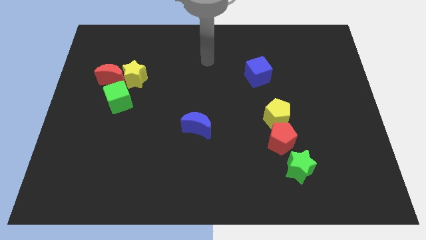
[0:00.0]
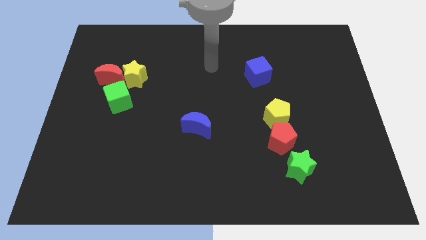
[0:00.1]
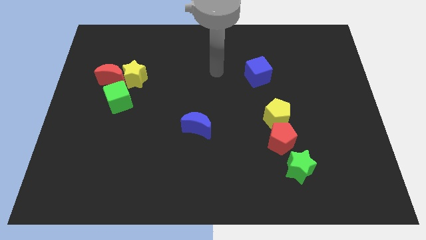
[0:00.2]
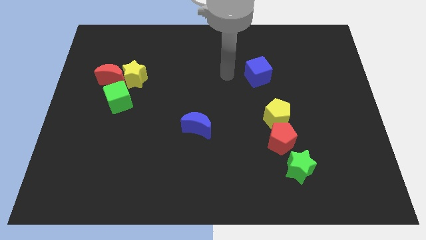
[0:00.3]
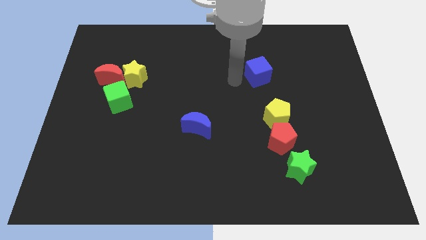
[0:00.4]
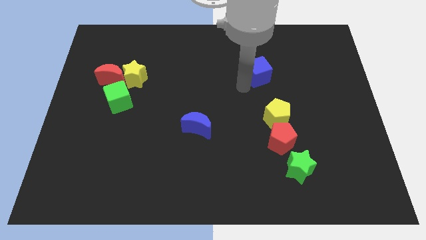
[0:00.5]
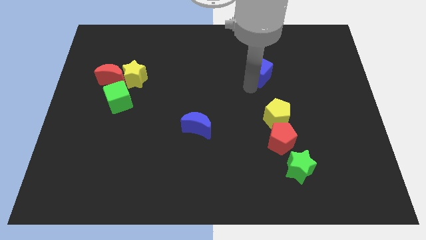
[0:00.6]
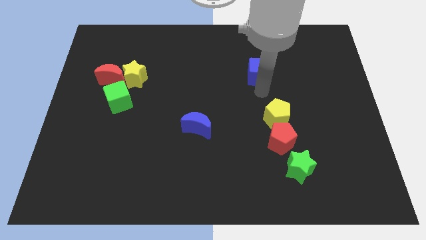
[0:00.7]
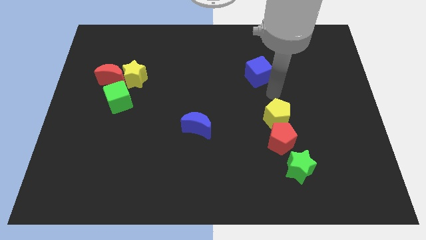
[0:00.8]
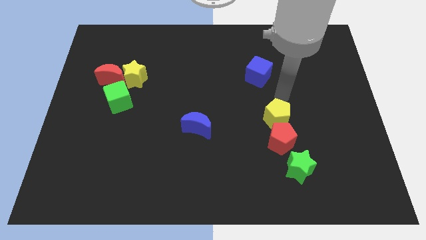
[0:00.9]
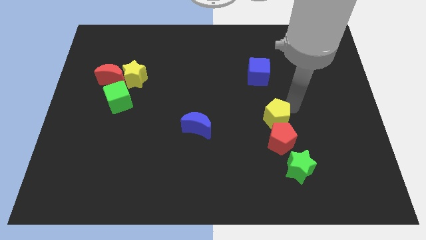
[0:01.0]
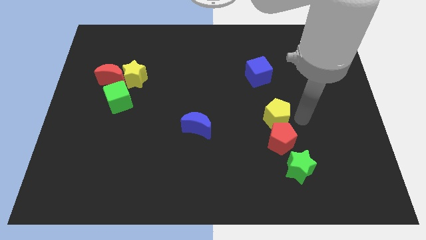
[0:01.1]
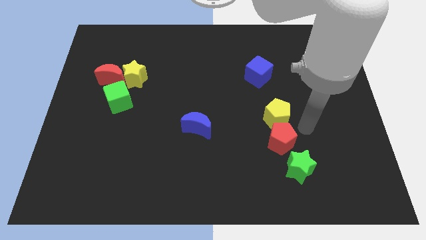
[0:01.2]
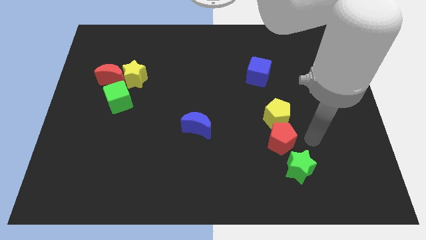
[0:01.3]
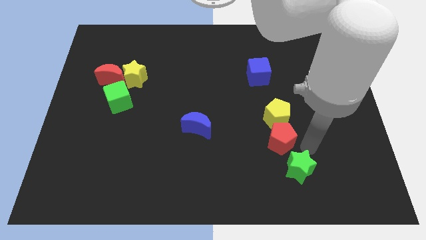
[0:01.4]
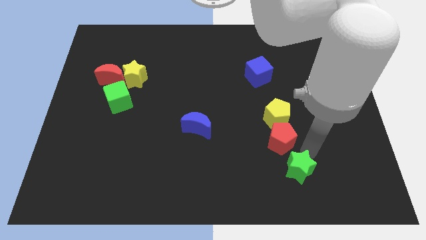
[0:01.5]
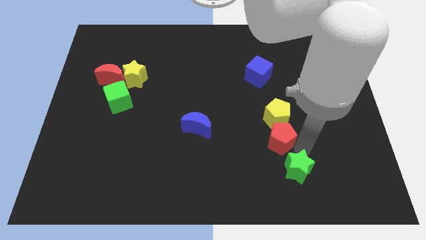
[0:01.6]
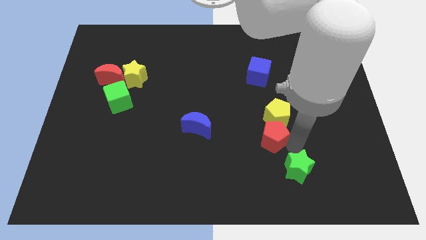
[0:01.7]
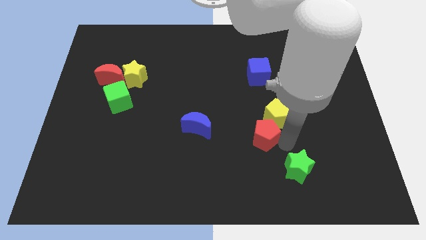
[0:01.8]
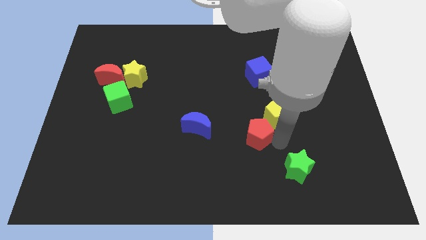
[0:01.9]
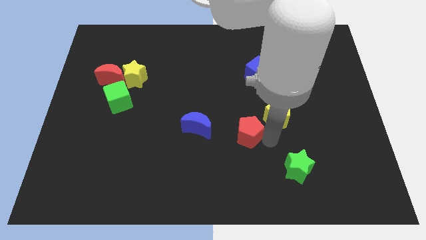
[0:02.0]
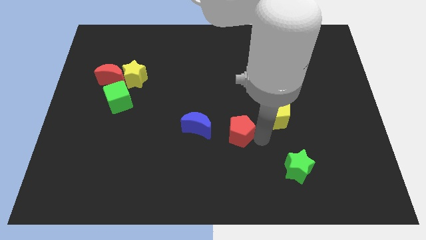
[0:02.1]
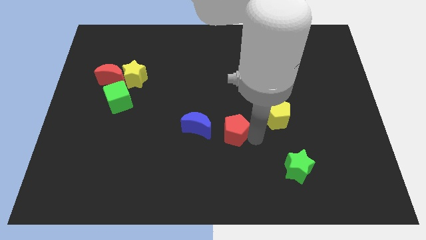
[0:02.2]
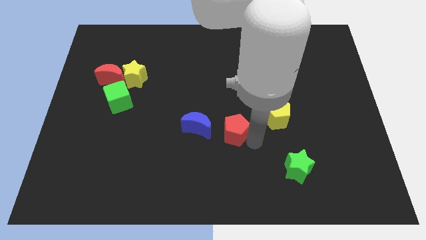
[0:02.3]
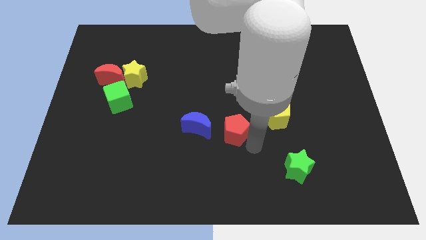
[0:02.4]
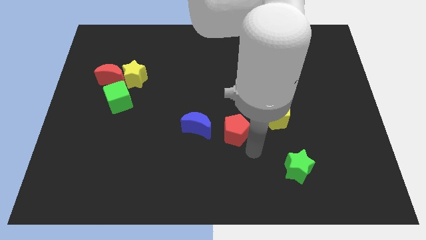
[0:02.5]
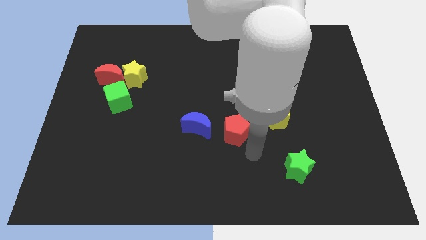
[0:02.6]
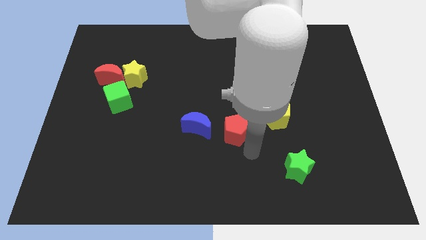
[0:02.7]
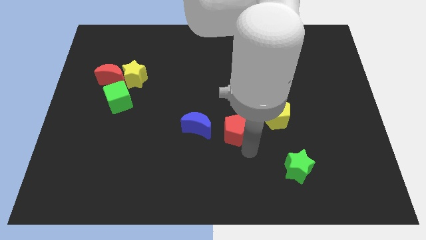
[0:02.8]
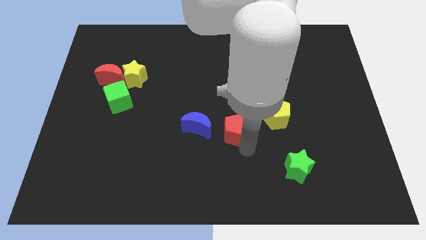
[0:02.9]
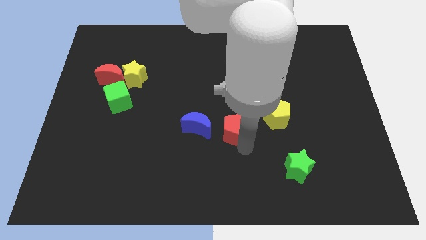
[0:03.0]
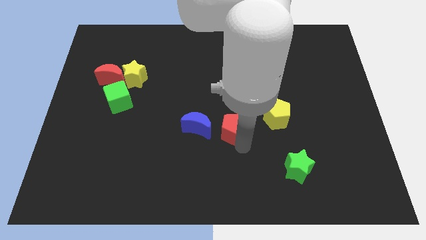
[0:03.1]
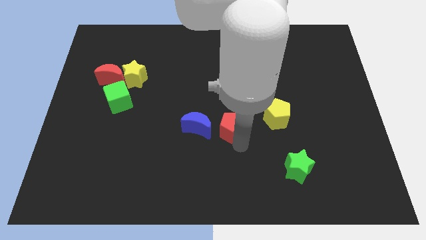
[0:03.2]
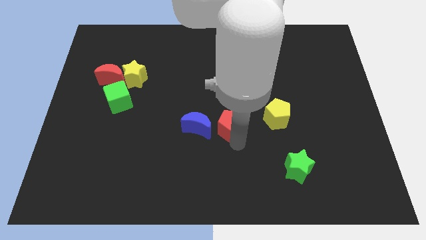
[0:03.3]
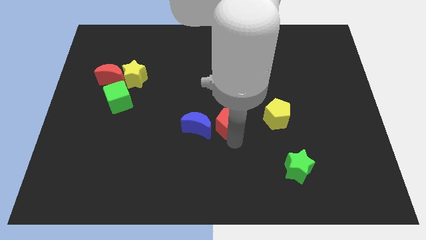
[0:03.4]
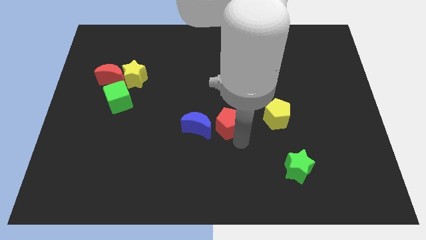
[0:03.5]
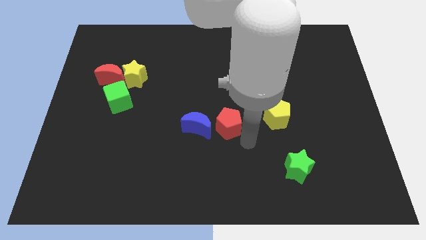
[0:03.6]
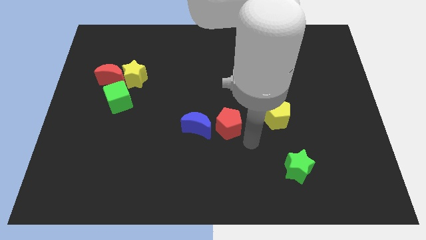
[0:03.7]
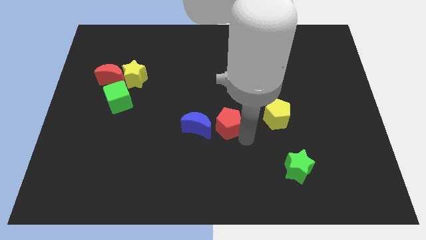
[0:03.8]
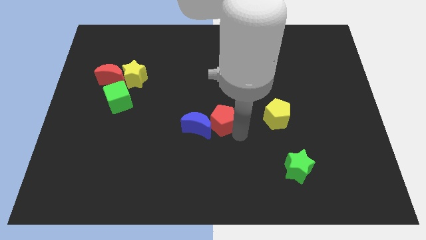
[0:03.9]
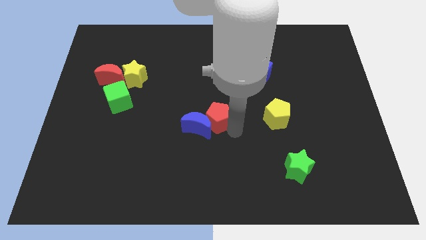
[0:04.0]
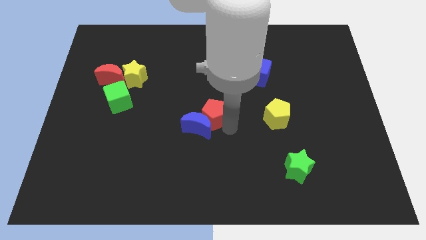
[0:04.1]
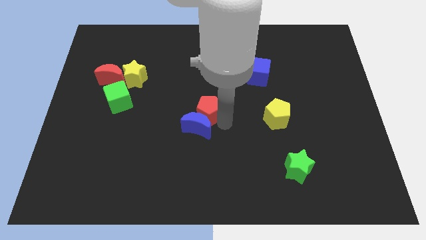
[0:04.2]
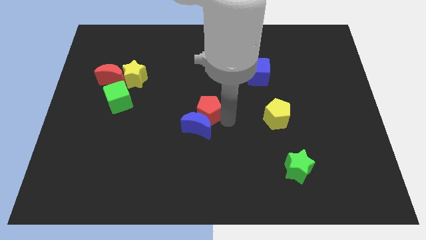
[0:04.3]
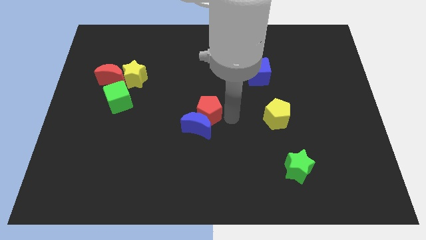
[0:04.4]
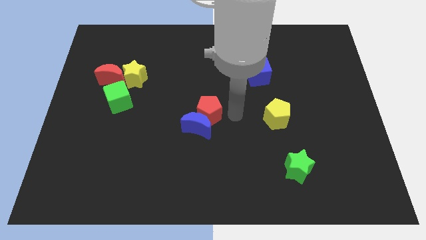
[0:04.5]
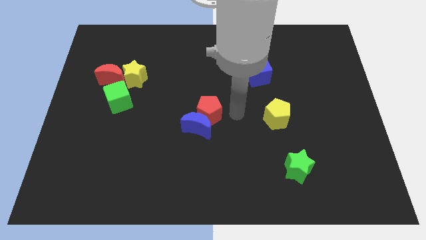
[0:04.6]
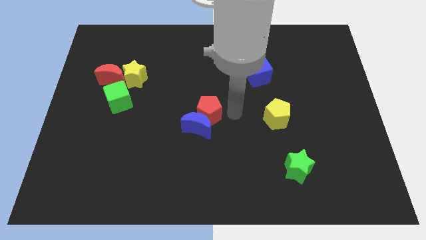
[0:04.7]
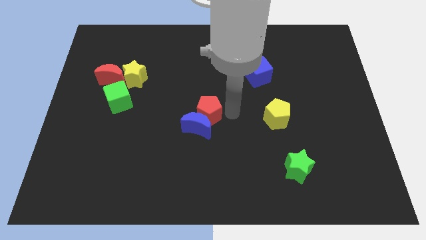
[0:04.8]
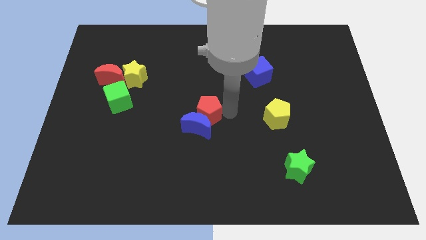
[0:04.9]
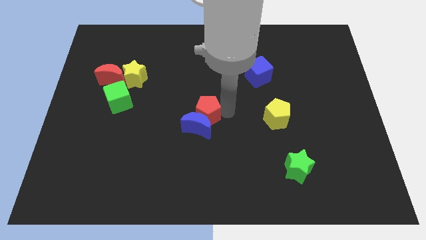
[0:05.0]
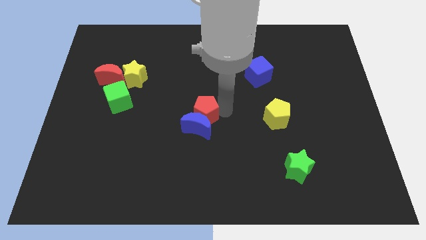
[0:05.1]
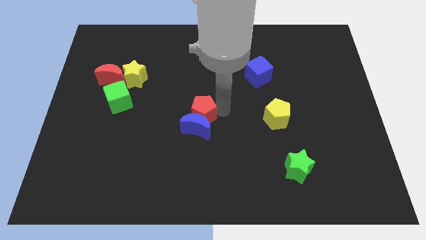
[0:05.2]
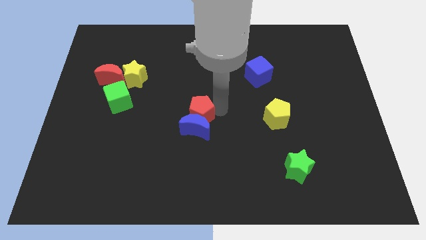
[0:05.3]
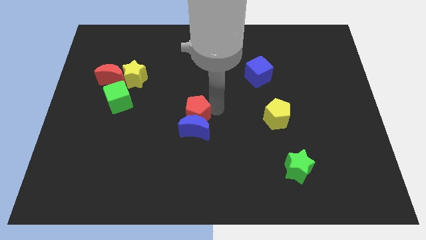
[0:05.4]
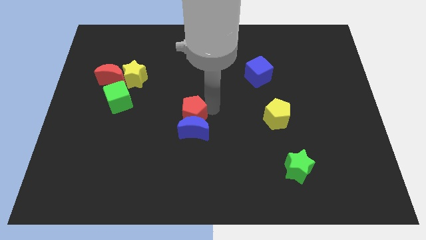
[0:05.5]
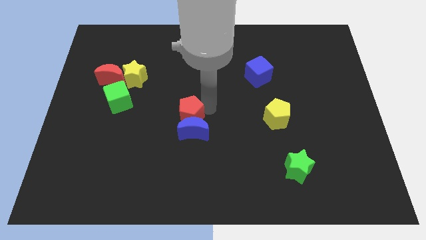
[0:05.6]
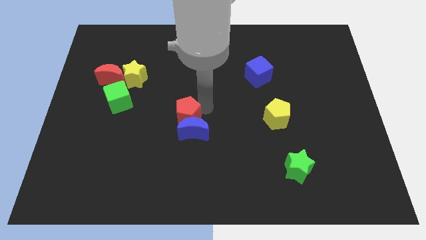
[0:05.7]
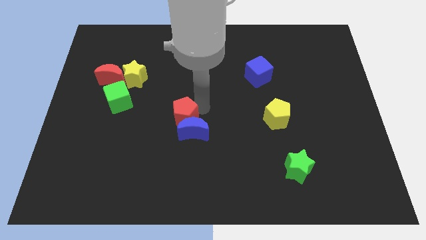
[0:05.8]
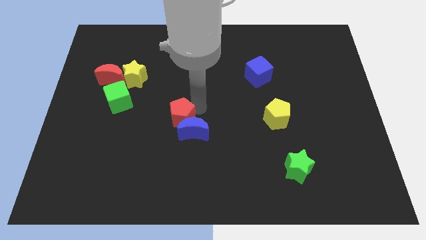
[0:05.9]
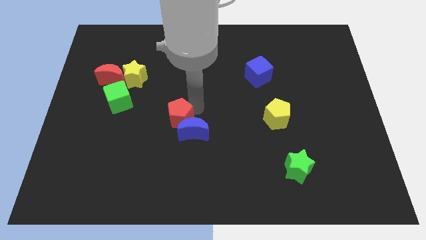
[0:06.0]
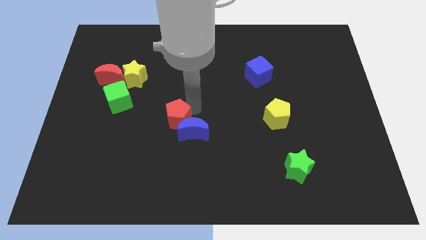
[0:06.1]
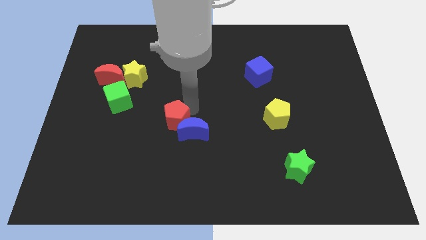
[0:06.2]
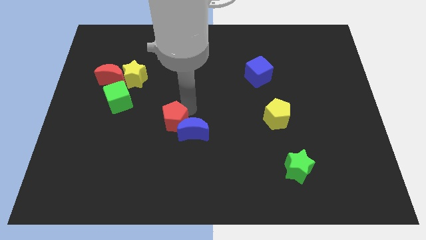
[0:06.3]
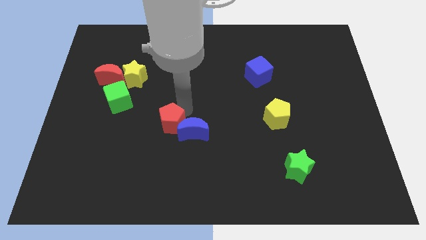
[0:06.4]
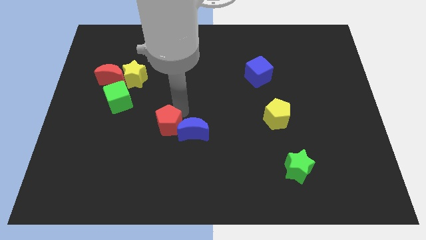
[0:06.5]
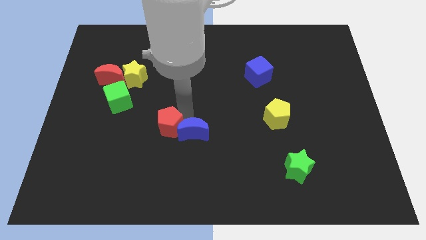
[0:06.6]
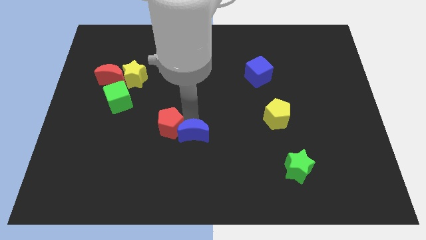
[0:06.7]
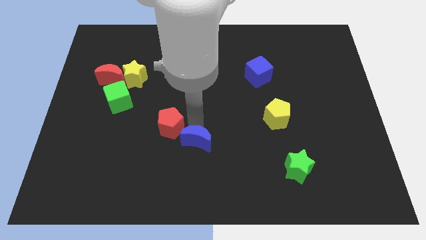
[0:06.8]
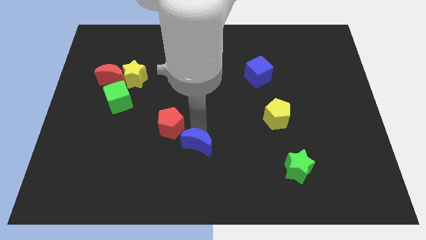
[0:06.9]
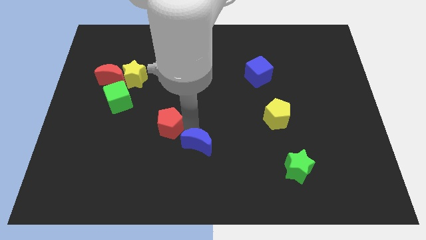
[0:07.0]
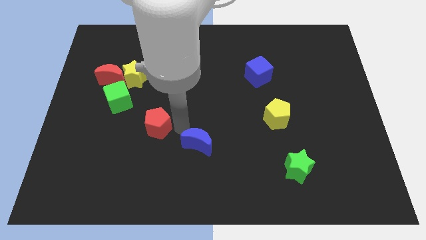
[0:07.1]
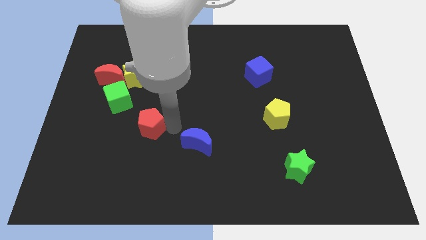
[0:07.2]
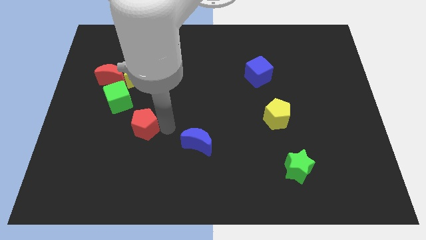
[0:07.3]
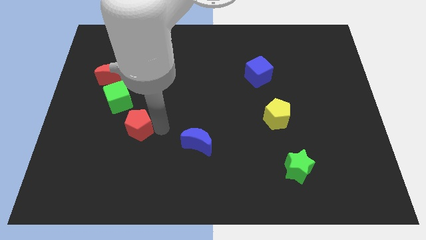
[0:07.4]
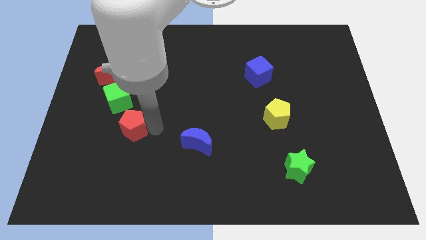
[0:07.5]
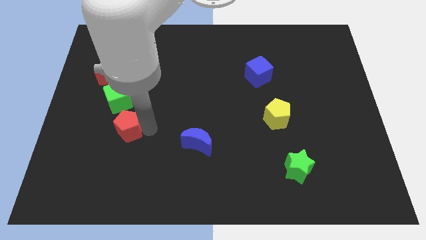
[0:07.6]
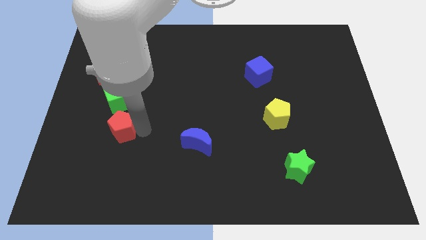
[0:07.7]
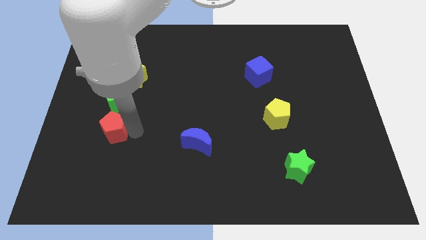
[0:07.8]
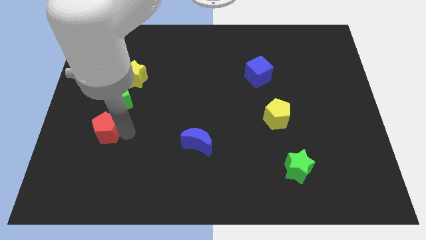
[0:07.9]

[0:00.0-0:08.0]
put the red pentagon below the red moon
